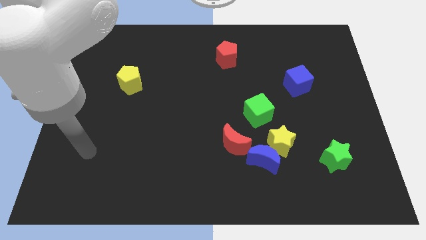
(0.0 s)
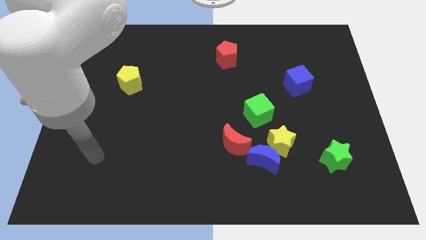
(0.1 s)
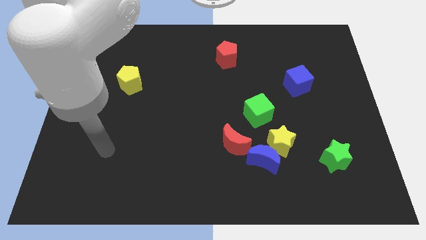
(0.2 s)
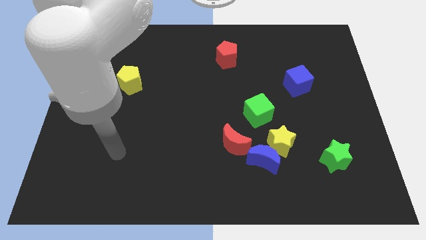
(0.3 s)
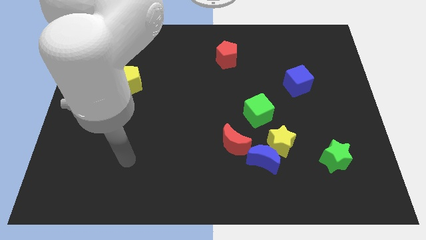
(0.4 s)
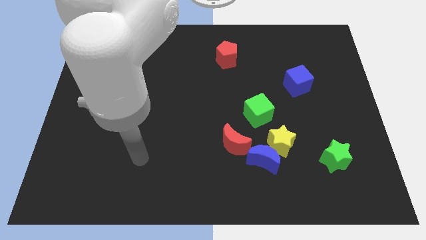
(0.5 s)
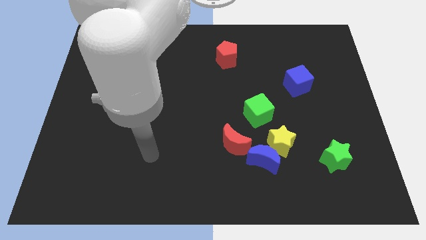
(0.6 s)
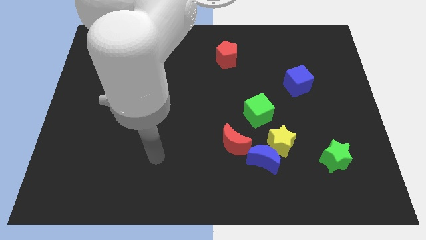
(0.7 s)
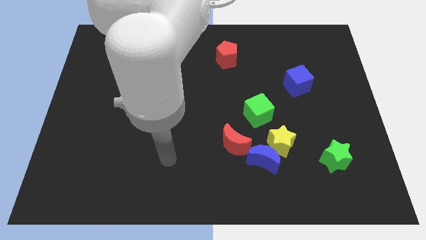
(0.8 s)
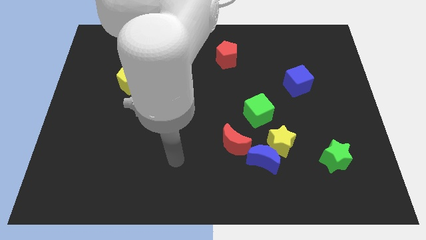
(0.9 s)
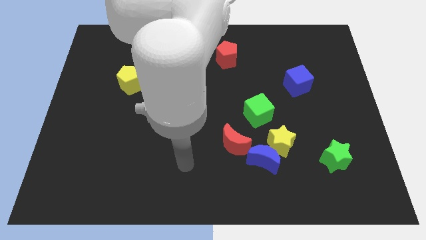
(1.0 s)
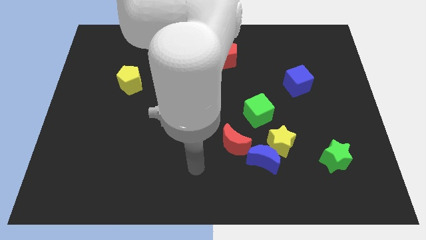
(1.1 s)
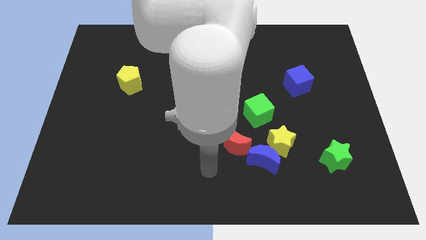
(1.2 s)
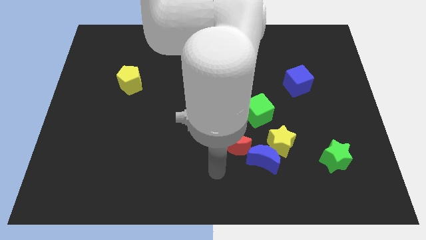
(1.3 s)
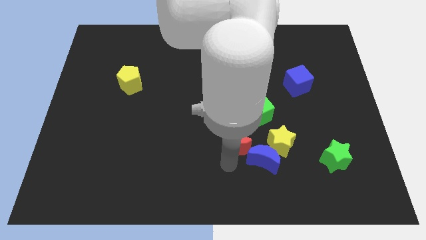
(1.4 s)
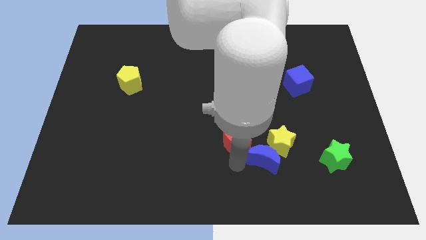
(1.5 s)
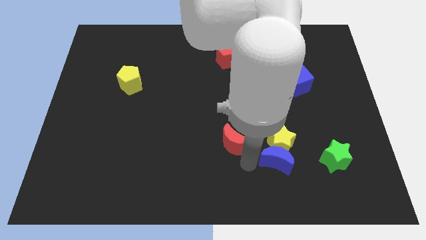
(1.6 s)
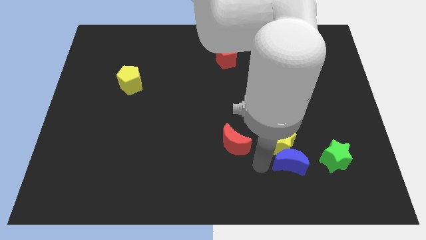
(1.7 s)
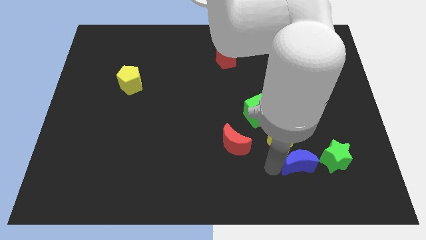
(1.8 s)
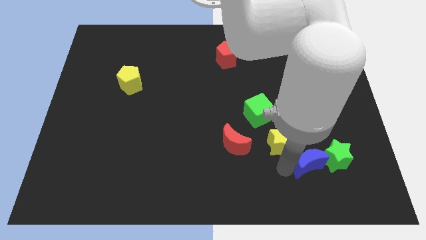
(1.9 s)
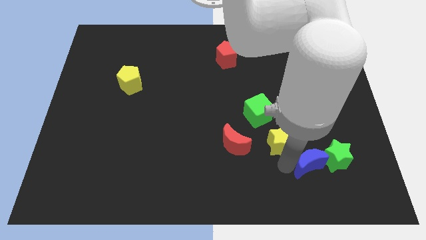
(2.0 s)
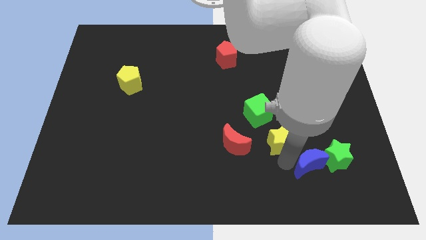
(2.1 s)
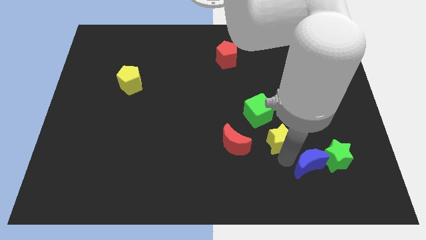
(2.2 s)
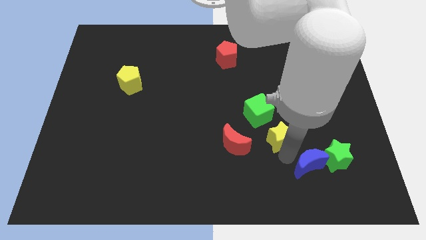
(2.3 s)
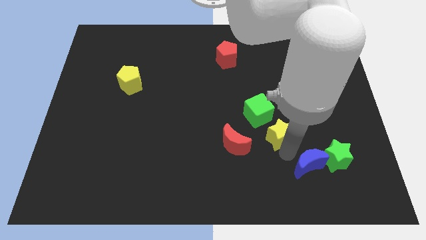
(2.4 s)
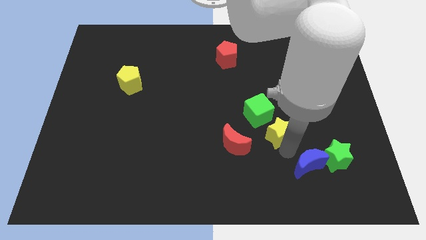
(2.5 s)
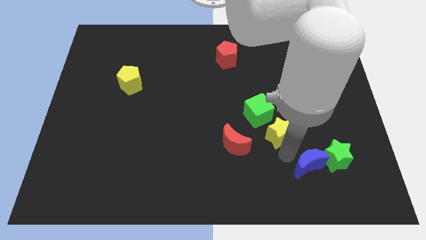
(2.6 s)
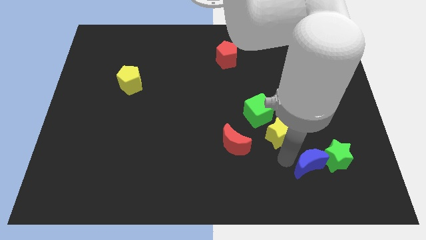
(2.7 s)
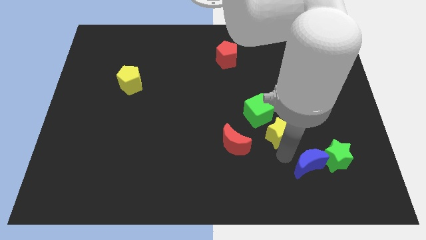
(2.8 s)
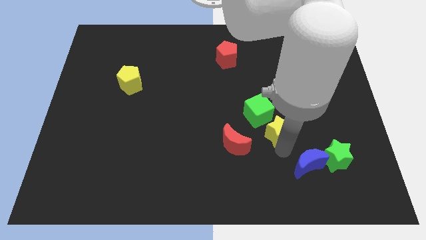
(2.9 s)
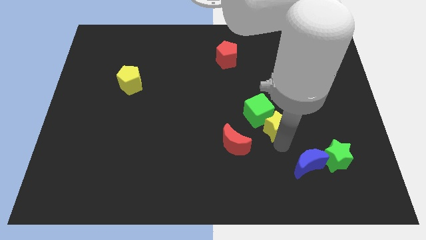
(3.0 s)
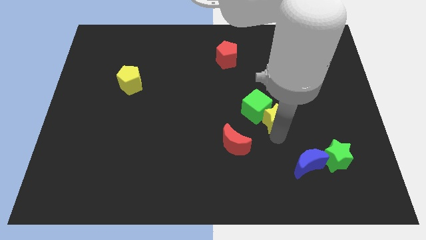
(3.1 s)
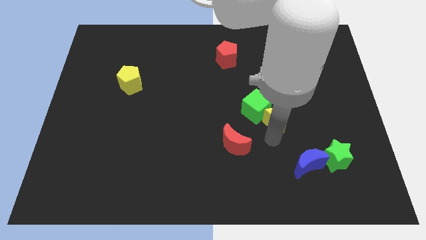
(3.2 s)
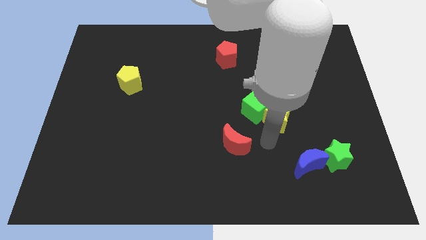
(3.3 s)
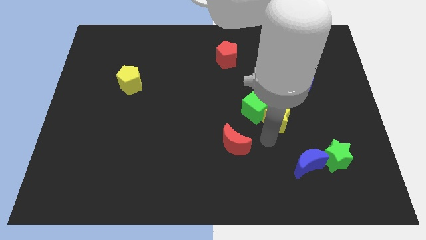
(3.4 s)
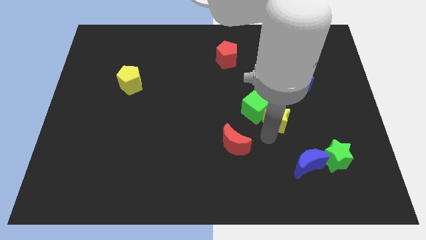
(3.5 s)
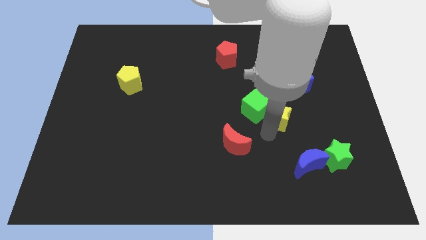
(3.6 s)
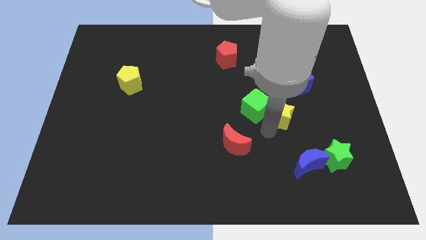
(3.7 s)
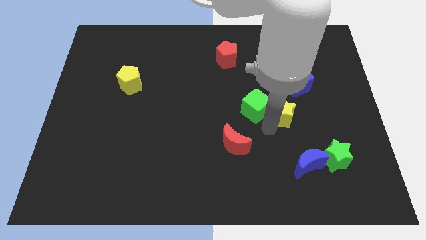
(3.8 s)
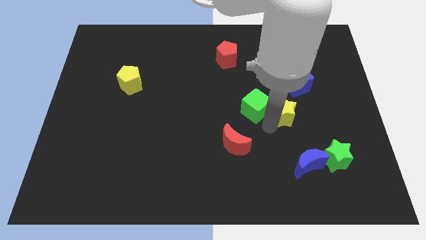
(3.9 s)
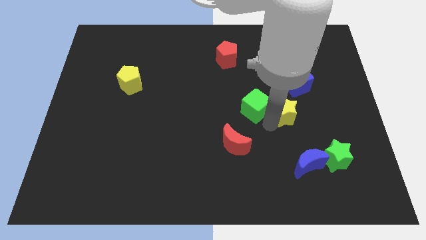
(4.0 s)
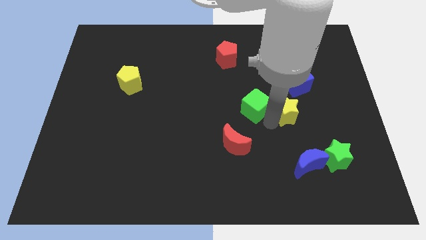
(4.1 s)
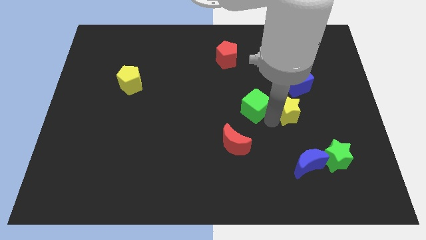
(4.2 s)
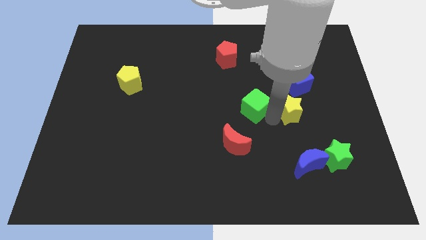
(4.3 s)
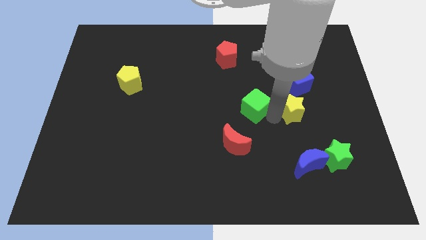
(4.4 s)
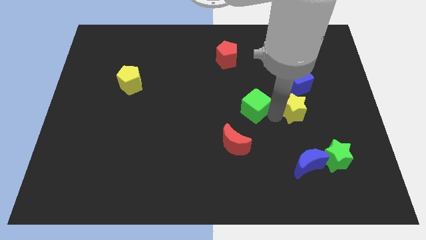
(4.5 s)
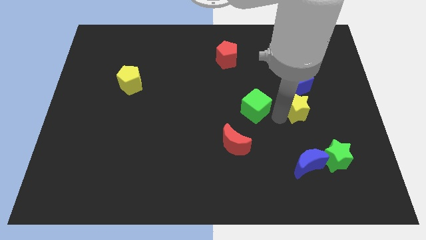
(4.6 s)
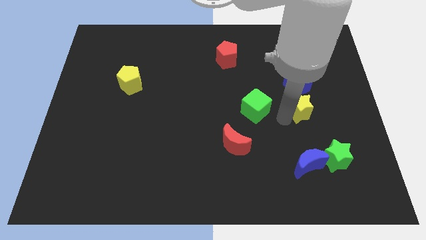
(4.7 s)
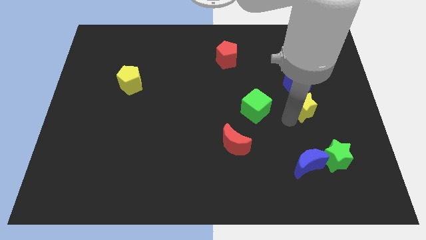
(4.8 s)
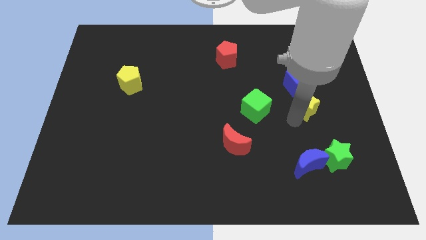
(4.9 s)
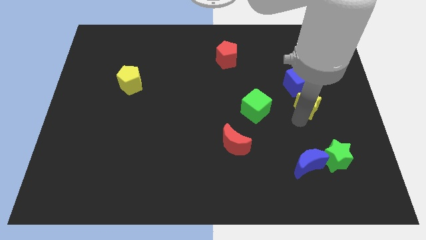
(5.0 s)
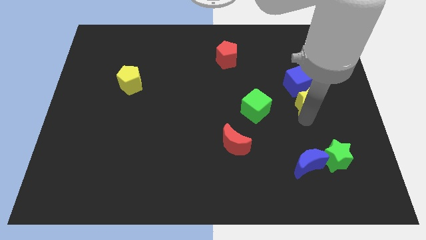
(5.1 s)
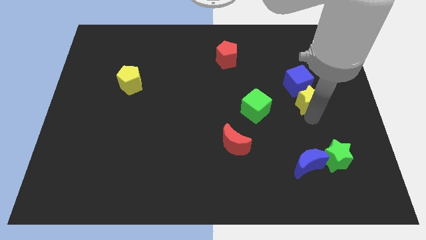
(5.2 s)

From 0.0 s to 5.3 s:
put the yellow star towards the blue cube

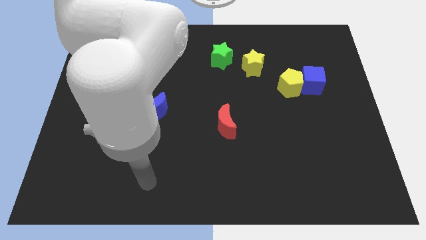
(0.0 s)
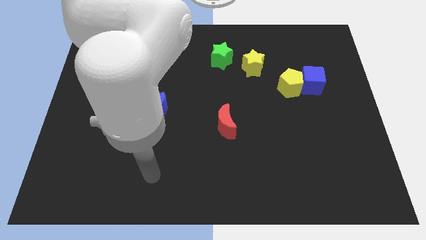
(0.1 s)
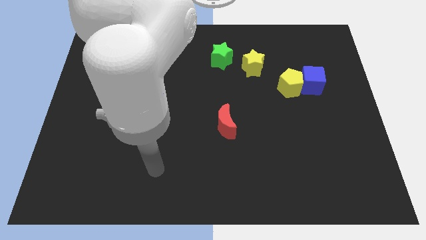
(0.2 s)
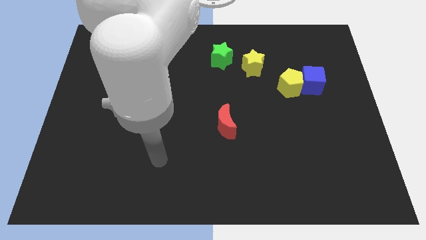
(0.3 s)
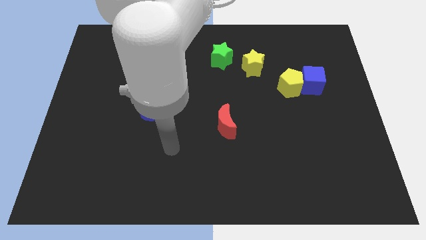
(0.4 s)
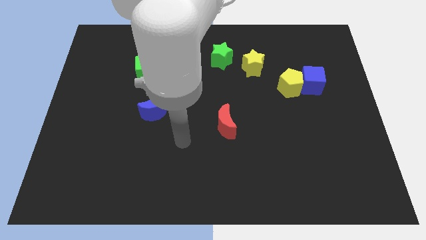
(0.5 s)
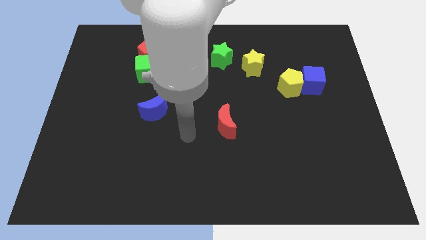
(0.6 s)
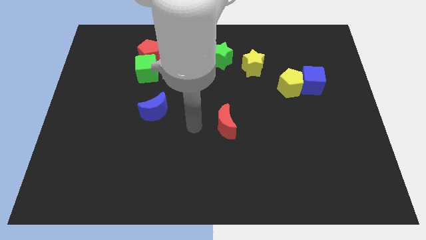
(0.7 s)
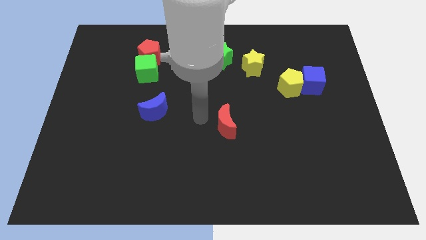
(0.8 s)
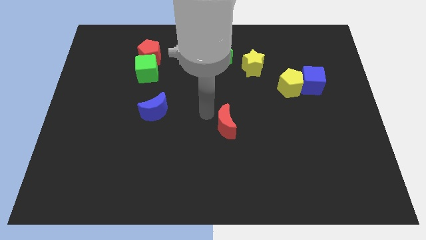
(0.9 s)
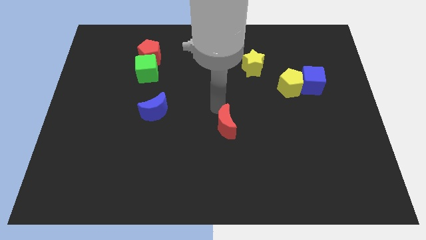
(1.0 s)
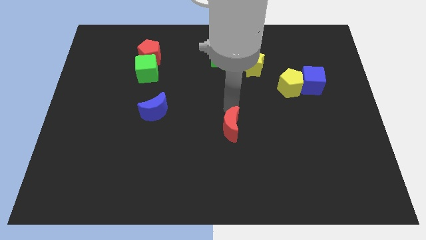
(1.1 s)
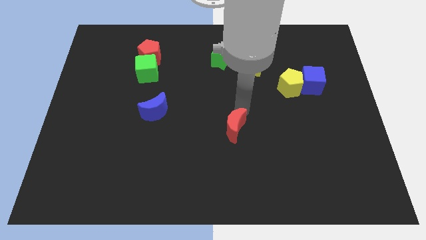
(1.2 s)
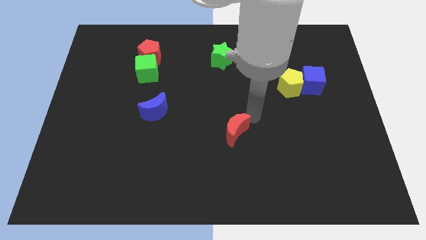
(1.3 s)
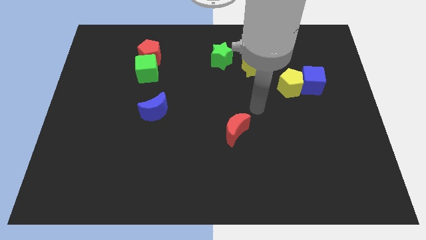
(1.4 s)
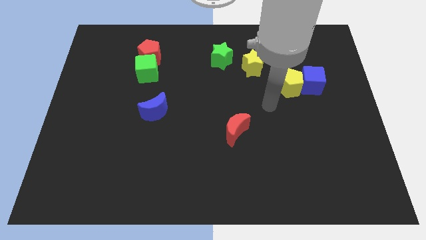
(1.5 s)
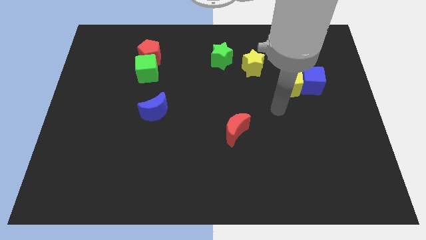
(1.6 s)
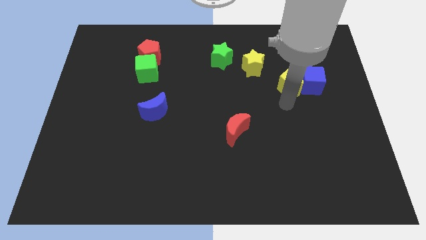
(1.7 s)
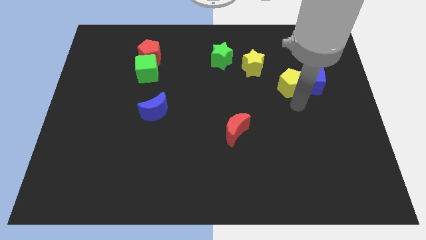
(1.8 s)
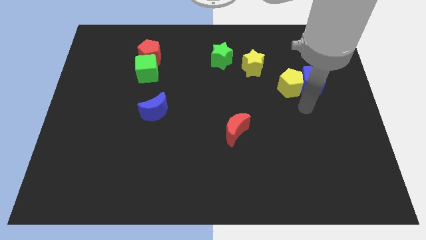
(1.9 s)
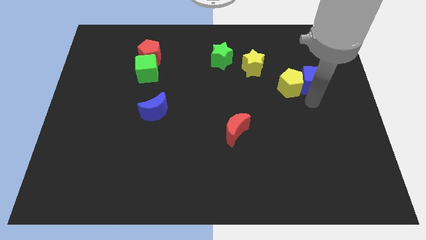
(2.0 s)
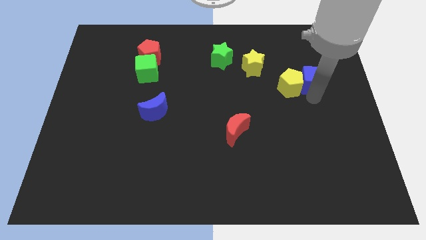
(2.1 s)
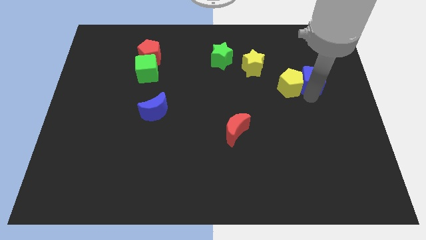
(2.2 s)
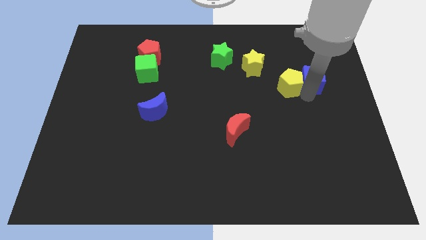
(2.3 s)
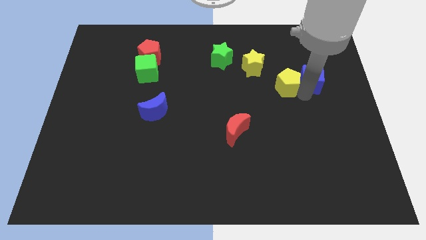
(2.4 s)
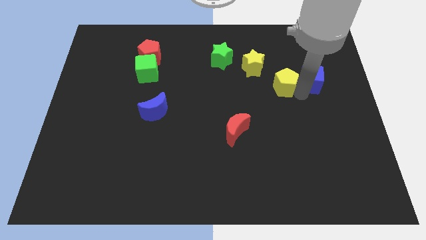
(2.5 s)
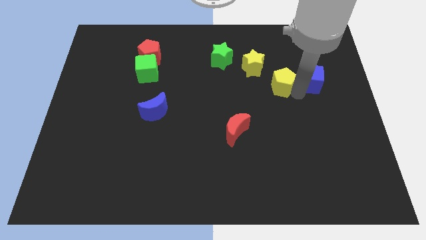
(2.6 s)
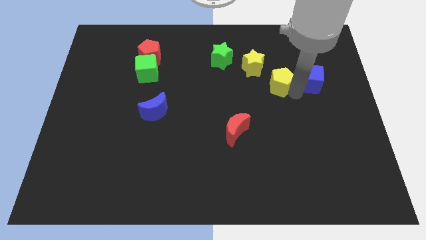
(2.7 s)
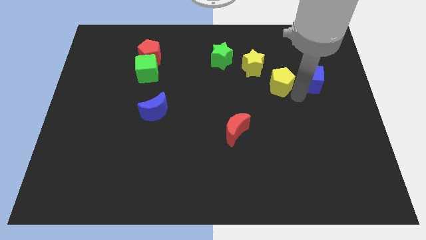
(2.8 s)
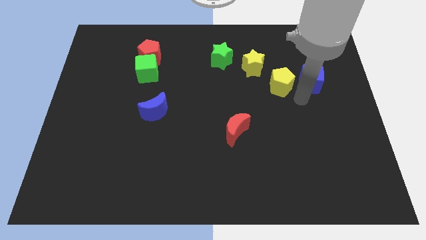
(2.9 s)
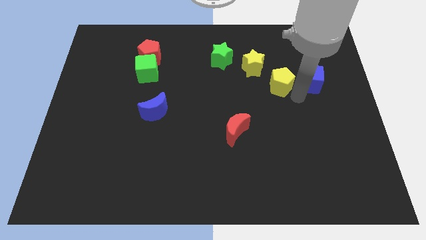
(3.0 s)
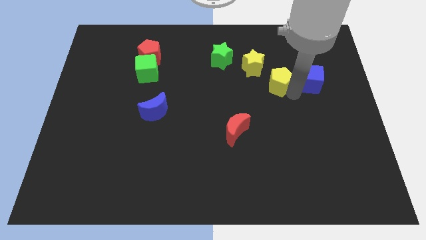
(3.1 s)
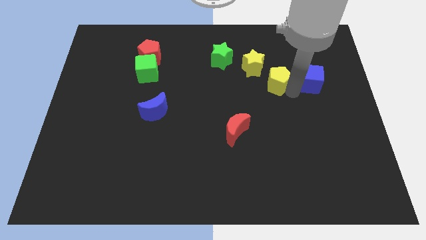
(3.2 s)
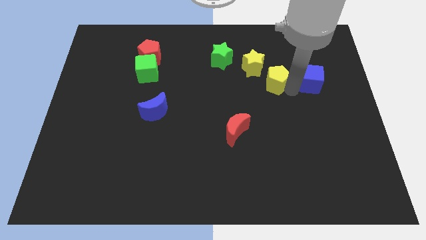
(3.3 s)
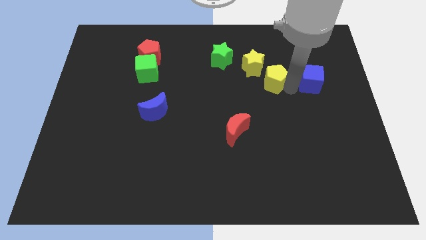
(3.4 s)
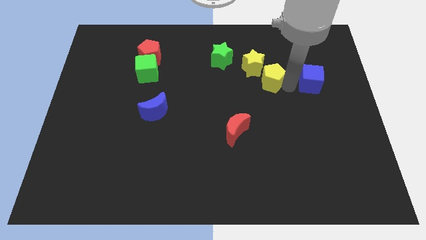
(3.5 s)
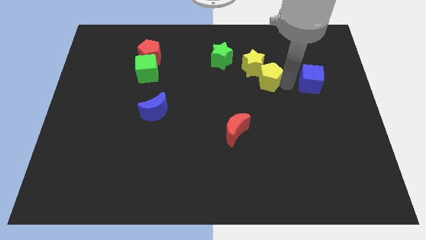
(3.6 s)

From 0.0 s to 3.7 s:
move the yellow pentagon to the yellow star
